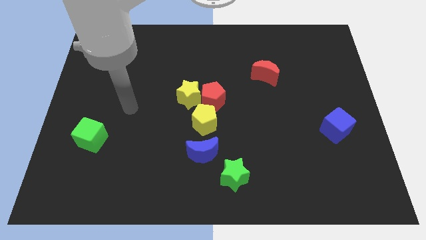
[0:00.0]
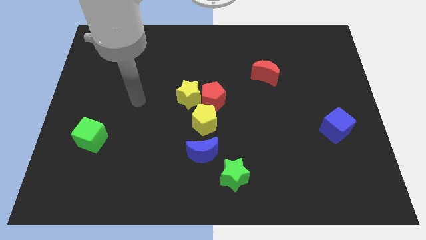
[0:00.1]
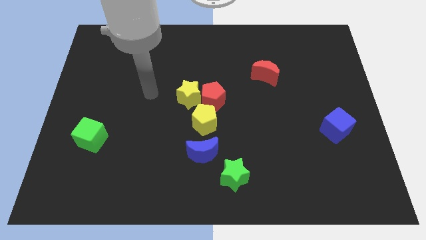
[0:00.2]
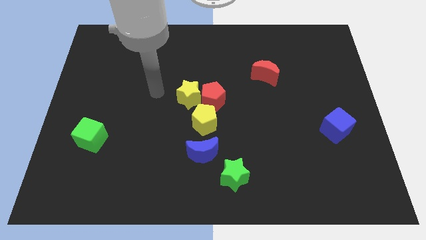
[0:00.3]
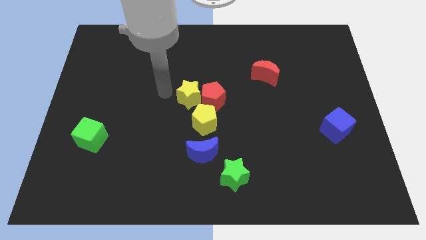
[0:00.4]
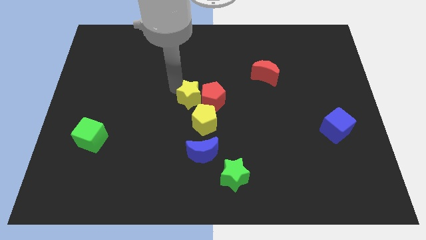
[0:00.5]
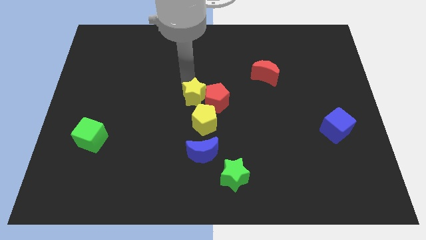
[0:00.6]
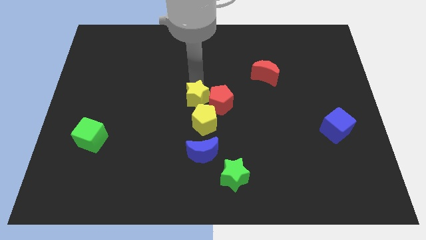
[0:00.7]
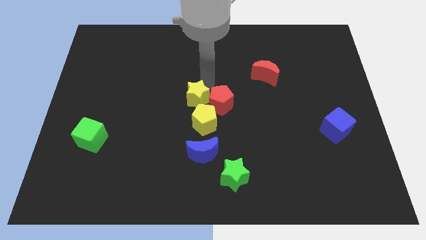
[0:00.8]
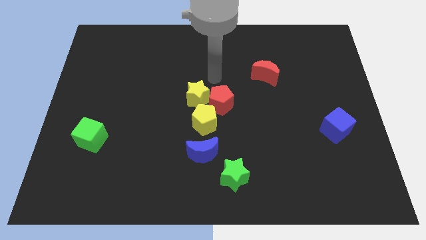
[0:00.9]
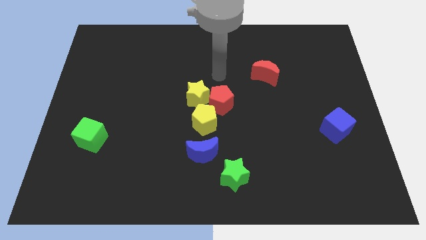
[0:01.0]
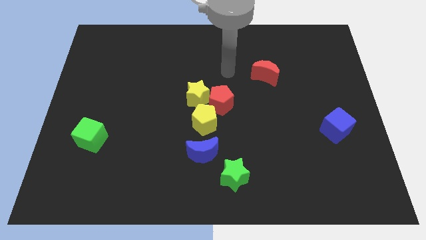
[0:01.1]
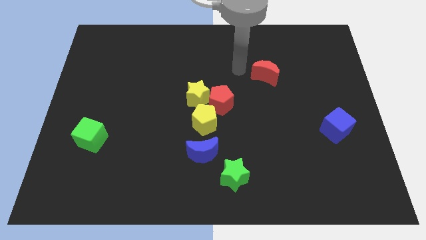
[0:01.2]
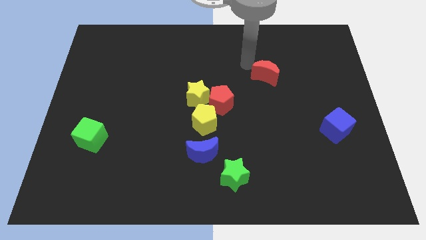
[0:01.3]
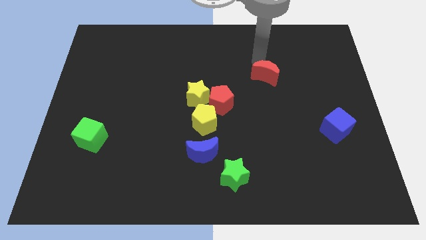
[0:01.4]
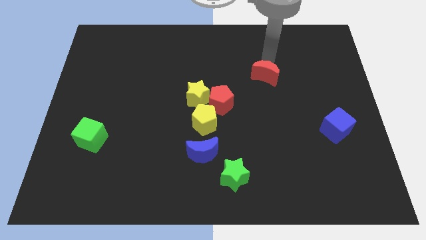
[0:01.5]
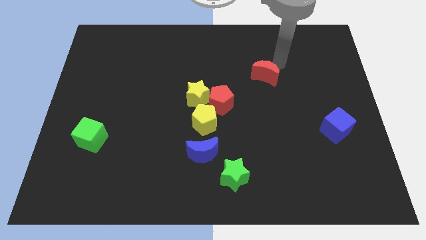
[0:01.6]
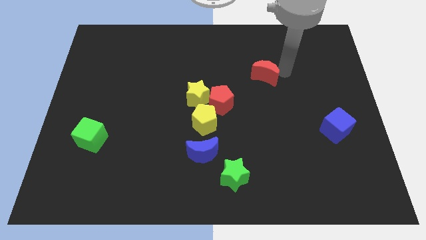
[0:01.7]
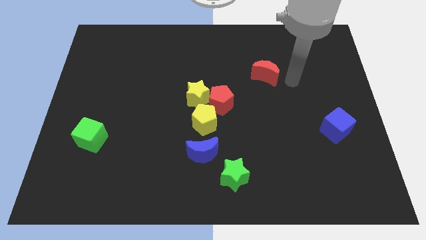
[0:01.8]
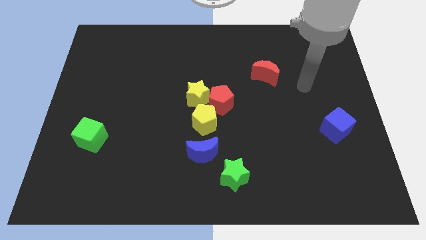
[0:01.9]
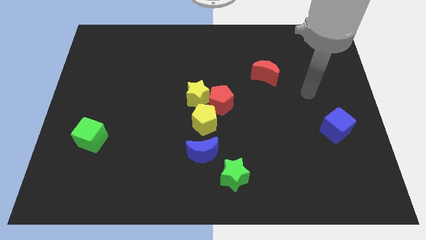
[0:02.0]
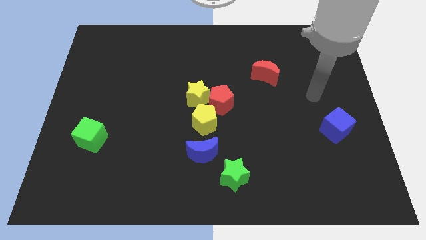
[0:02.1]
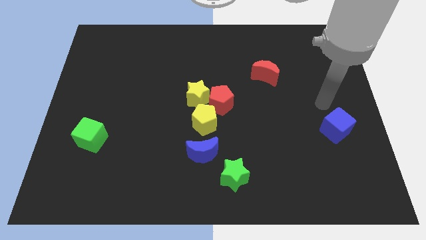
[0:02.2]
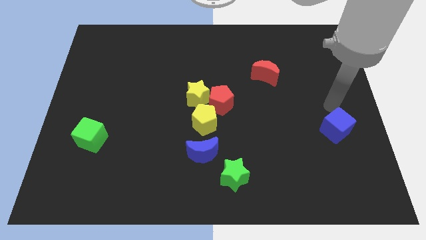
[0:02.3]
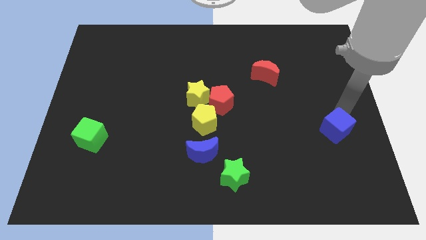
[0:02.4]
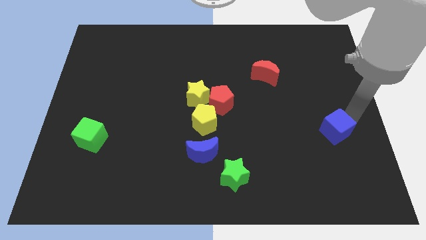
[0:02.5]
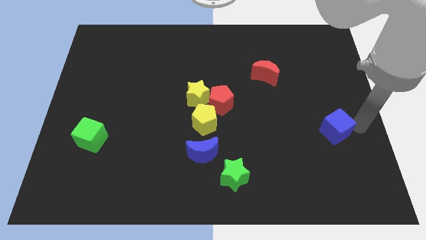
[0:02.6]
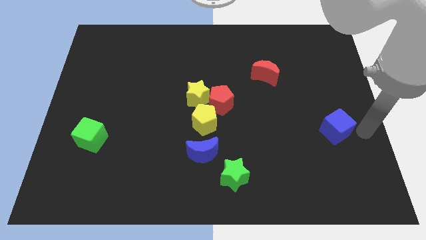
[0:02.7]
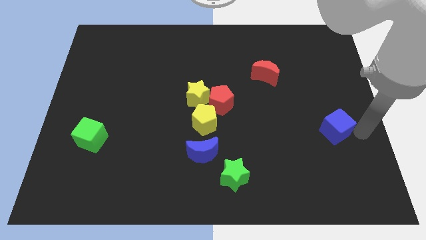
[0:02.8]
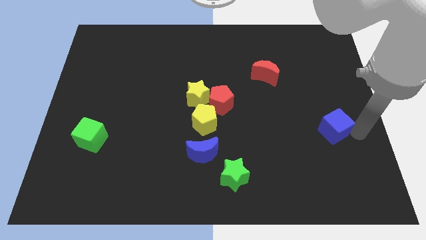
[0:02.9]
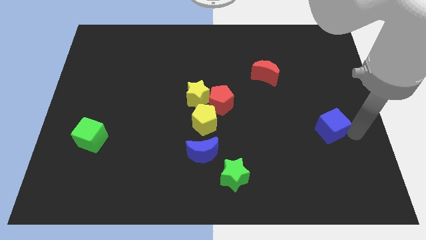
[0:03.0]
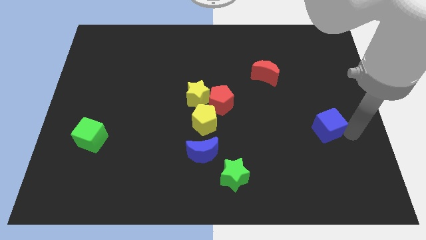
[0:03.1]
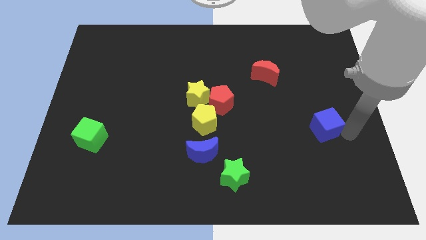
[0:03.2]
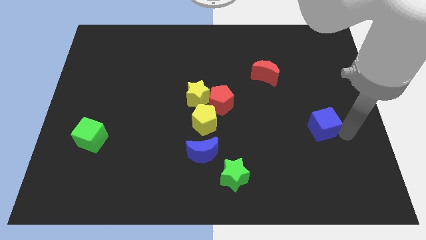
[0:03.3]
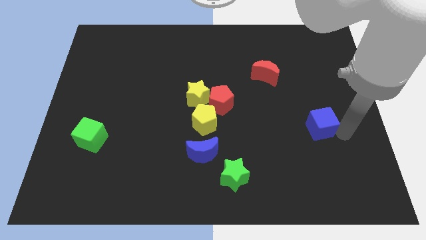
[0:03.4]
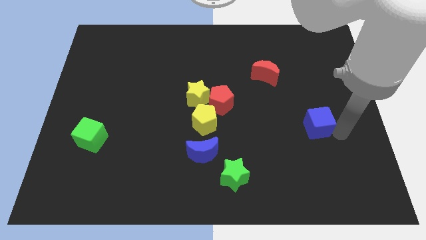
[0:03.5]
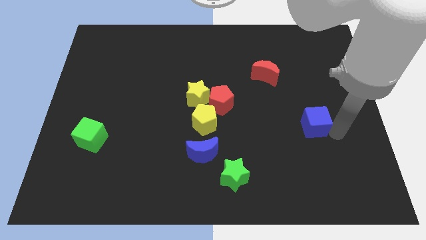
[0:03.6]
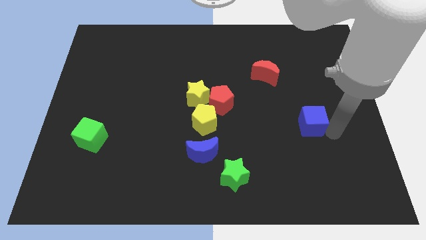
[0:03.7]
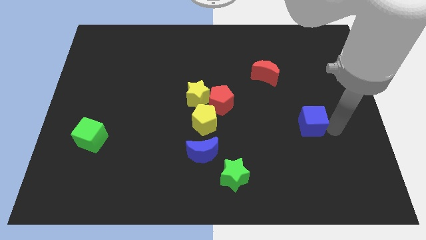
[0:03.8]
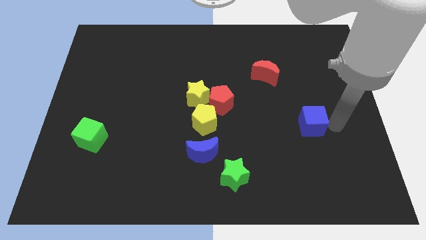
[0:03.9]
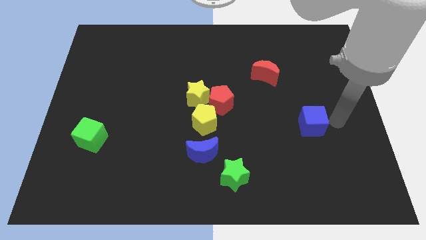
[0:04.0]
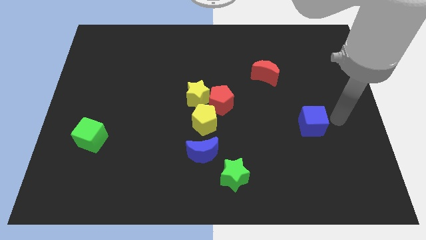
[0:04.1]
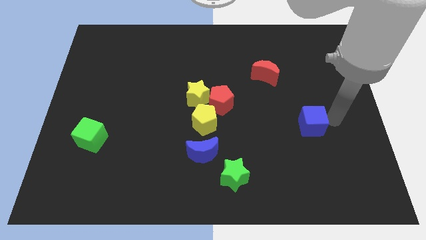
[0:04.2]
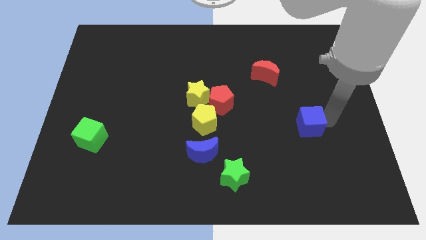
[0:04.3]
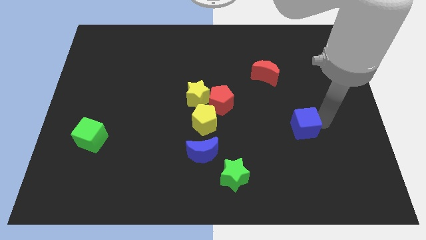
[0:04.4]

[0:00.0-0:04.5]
push the blue cube a bit left

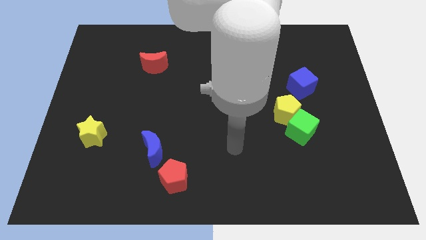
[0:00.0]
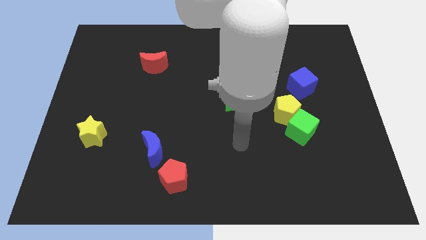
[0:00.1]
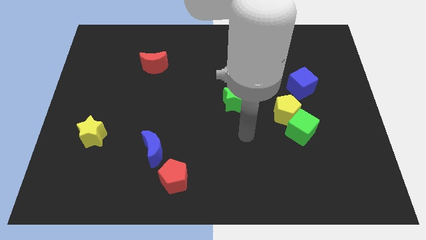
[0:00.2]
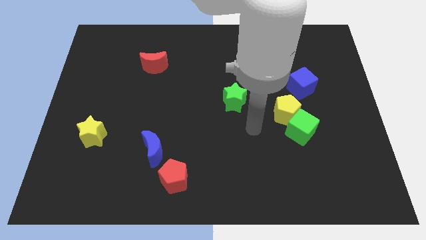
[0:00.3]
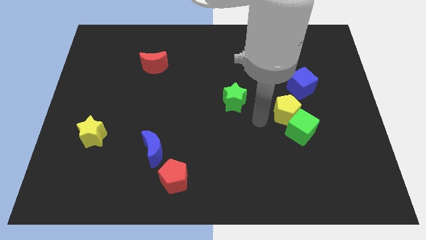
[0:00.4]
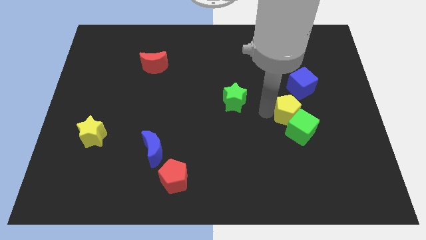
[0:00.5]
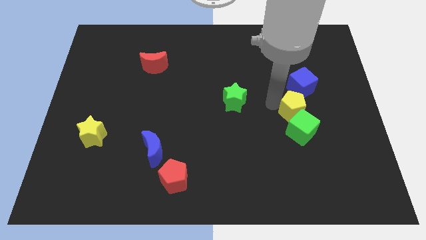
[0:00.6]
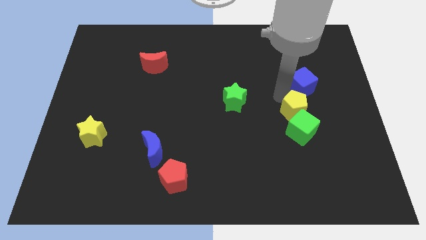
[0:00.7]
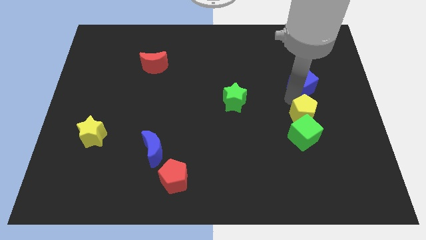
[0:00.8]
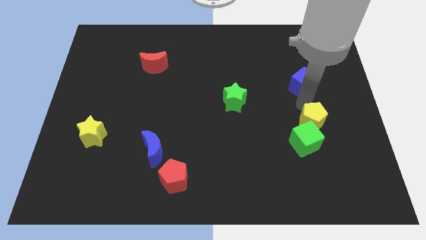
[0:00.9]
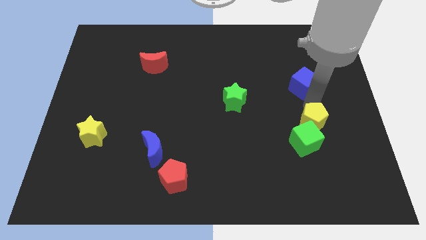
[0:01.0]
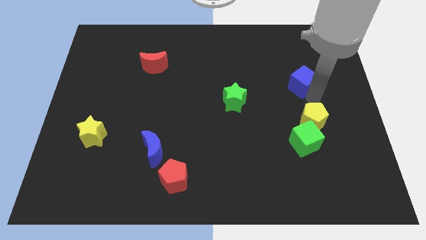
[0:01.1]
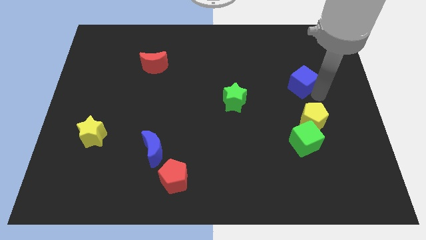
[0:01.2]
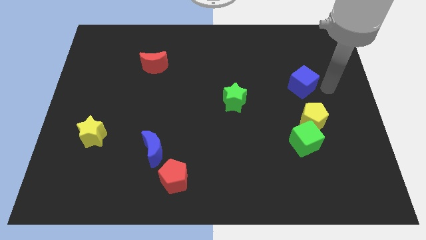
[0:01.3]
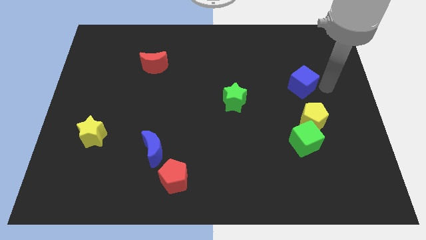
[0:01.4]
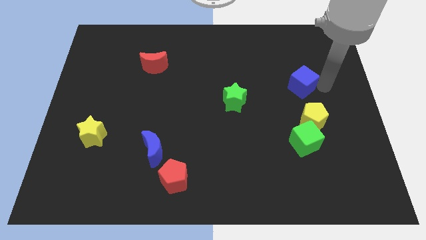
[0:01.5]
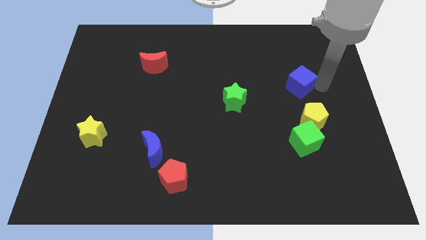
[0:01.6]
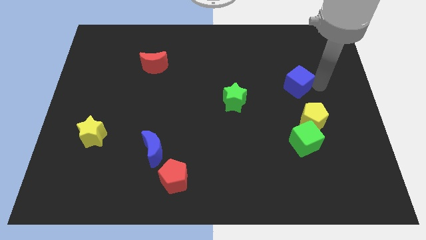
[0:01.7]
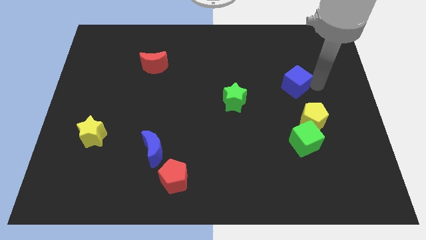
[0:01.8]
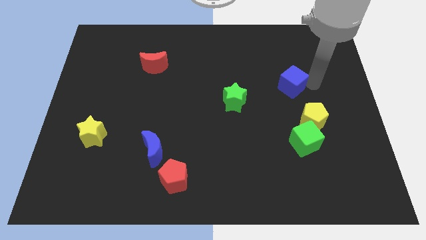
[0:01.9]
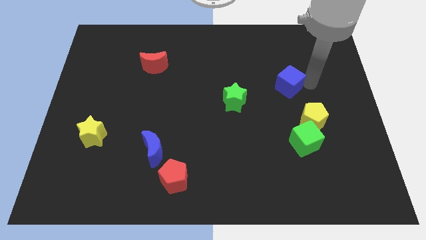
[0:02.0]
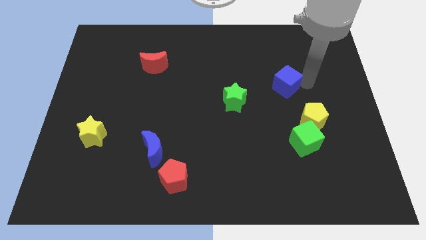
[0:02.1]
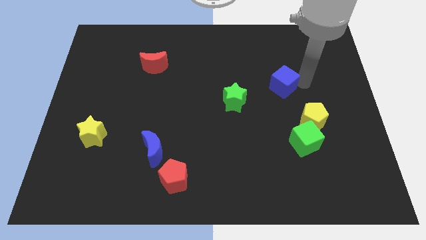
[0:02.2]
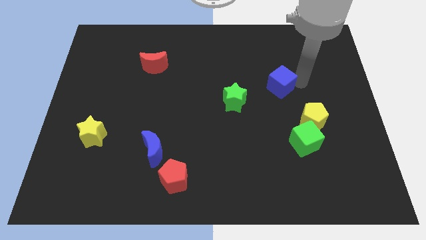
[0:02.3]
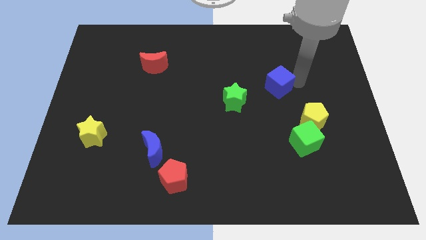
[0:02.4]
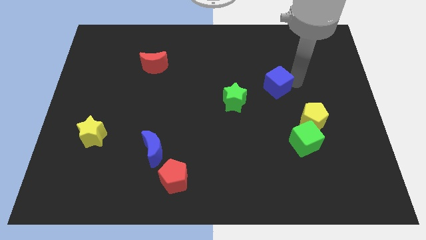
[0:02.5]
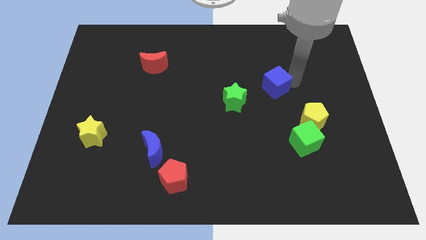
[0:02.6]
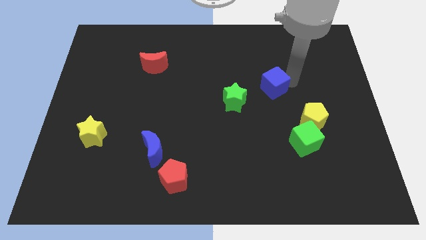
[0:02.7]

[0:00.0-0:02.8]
move the blue cube a little to the left

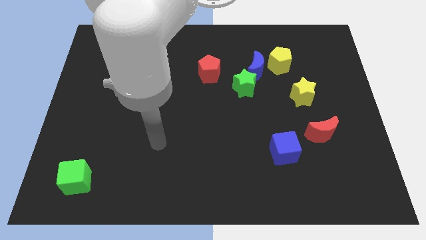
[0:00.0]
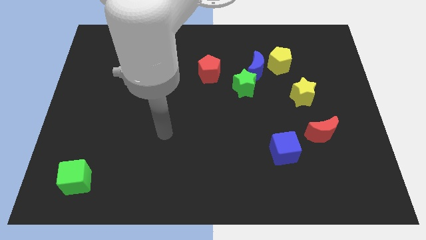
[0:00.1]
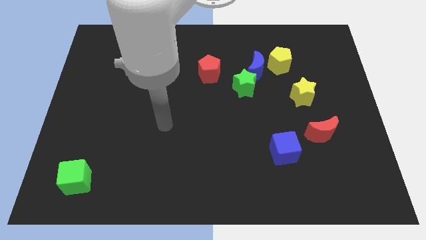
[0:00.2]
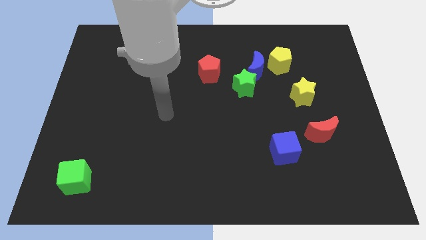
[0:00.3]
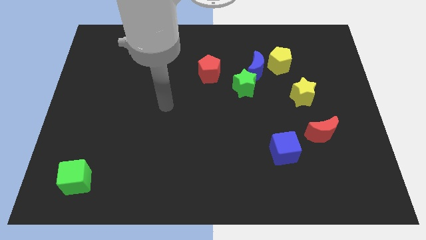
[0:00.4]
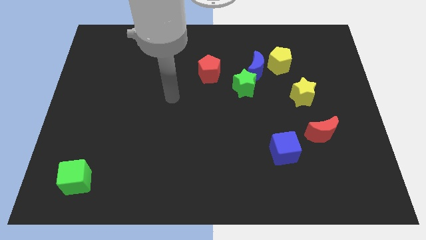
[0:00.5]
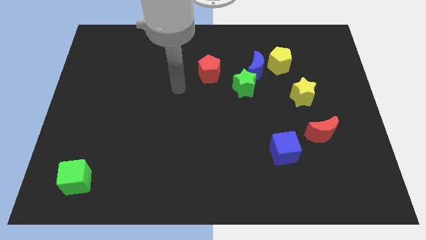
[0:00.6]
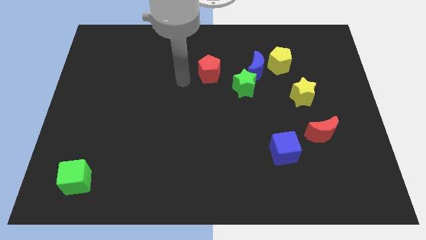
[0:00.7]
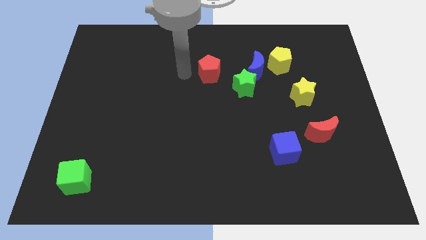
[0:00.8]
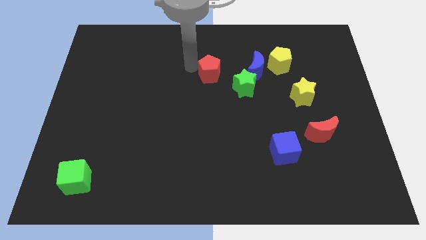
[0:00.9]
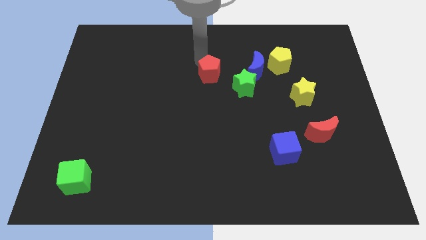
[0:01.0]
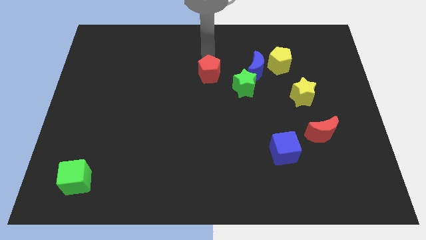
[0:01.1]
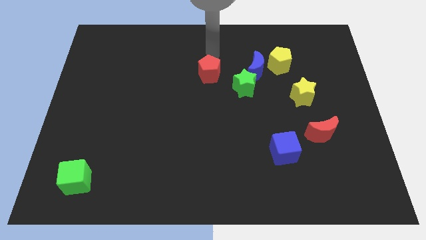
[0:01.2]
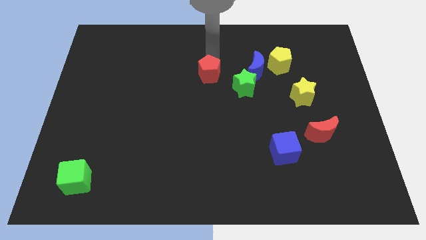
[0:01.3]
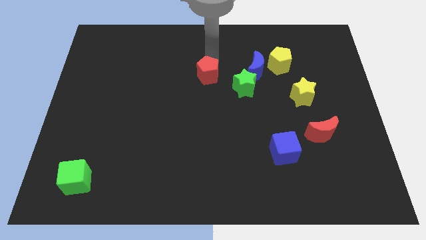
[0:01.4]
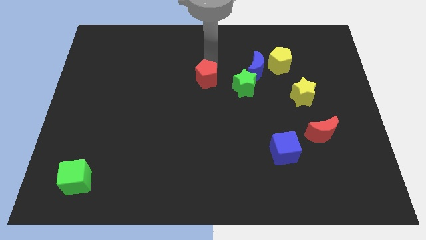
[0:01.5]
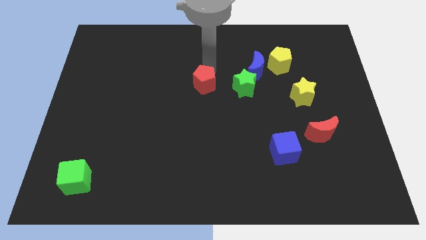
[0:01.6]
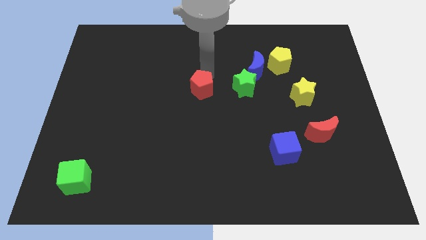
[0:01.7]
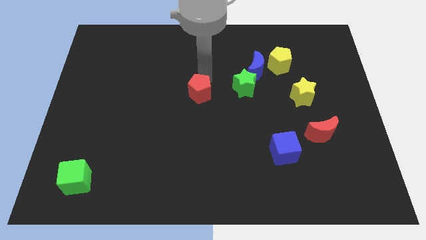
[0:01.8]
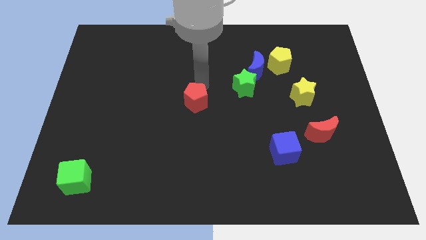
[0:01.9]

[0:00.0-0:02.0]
move the red pentagon downwards a little bit
